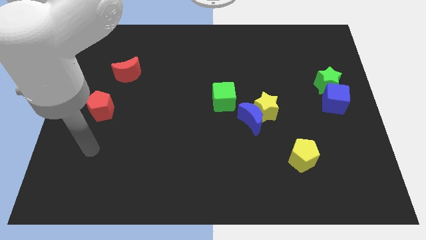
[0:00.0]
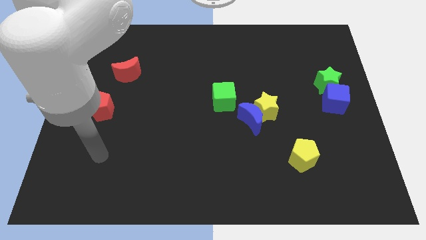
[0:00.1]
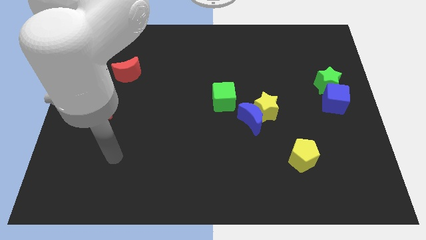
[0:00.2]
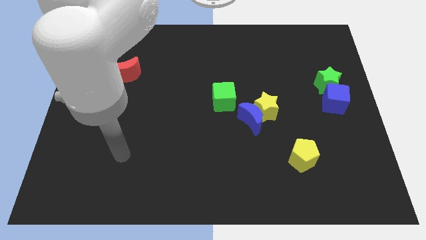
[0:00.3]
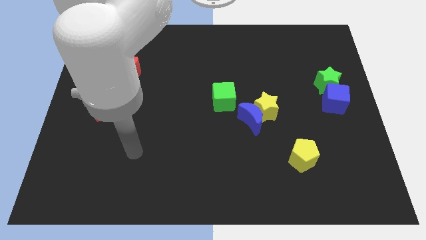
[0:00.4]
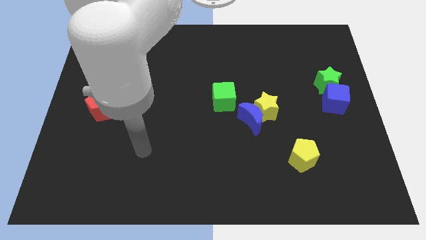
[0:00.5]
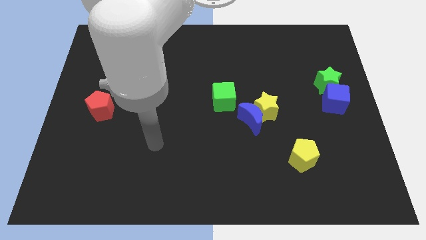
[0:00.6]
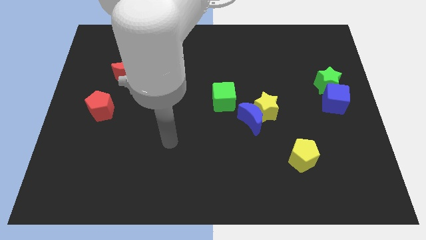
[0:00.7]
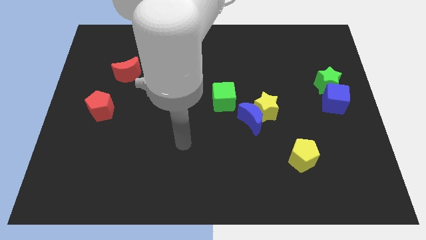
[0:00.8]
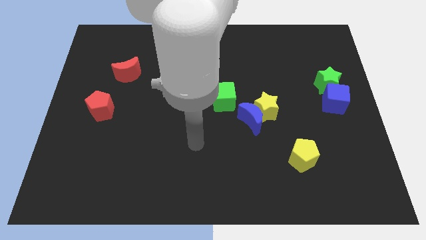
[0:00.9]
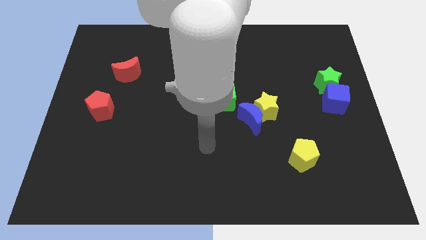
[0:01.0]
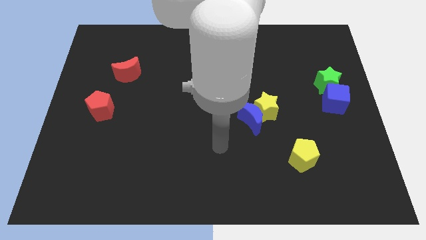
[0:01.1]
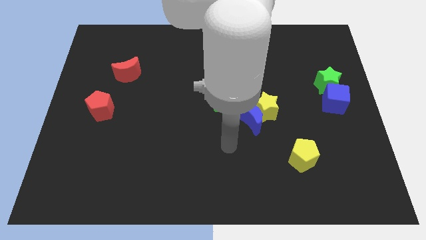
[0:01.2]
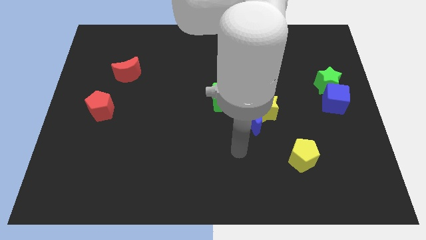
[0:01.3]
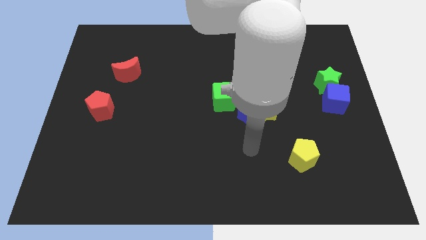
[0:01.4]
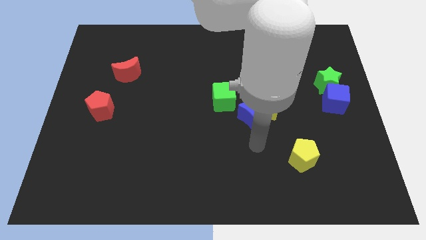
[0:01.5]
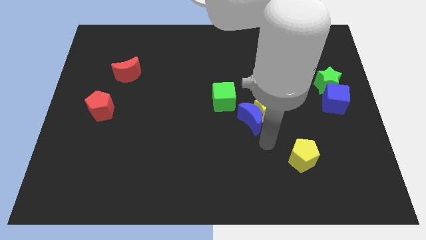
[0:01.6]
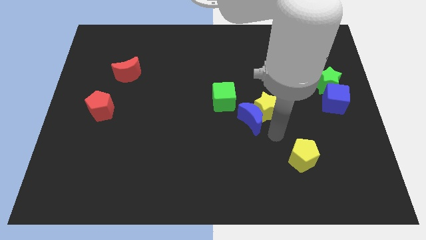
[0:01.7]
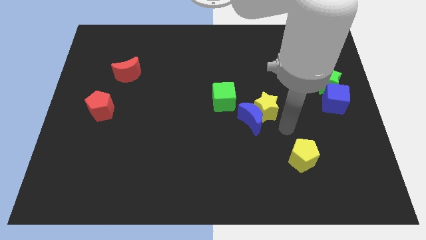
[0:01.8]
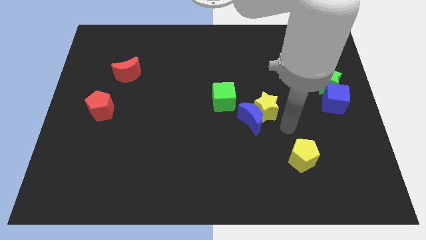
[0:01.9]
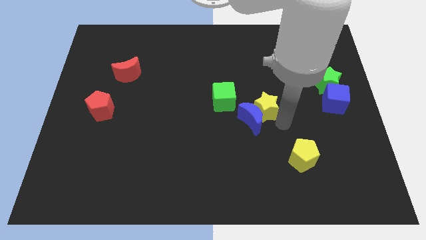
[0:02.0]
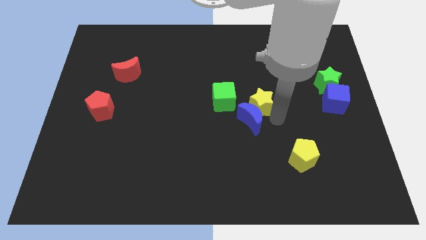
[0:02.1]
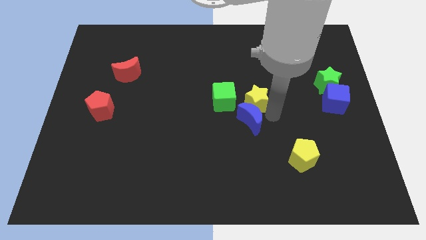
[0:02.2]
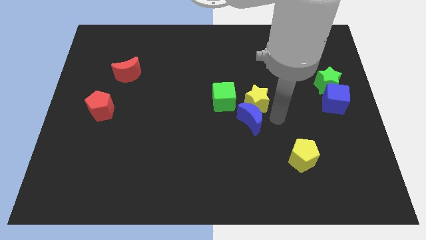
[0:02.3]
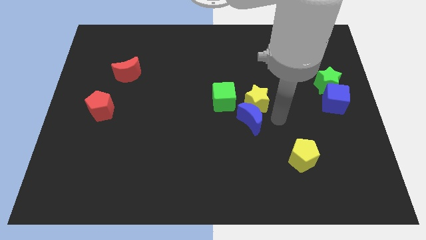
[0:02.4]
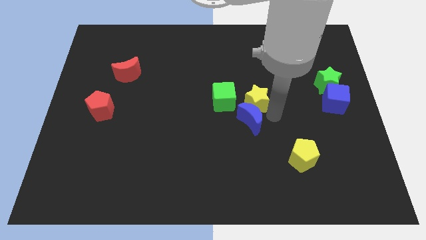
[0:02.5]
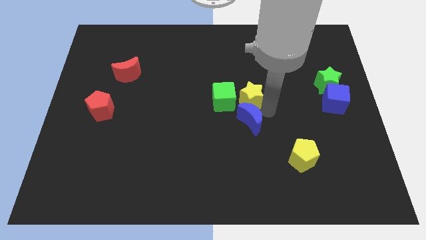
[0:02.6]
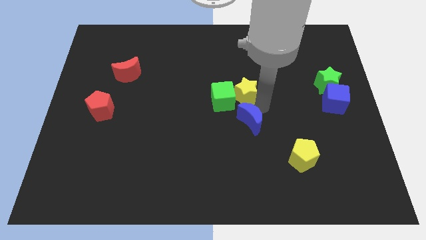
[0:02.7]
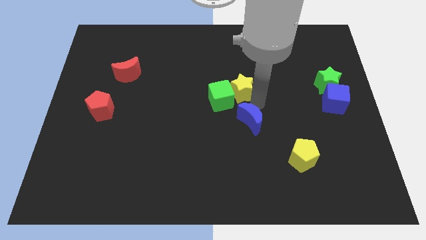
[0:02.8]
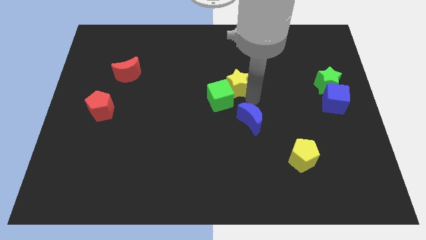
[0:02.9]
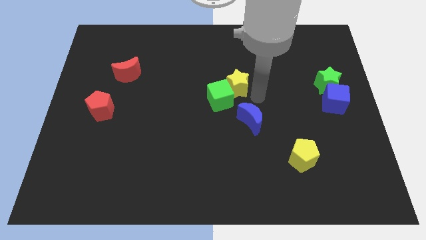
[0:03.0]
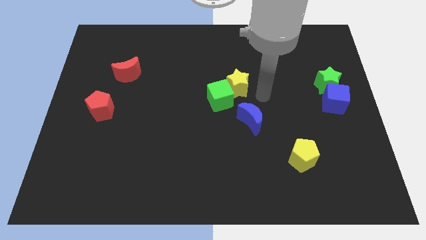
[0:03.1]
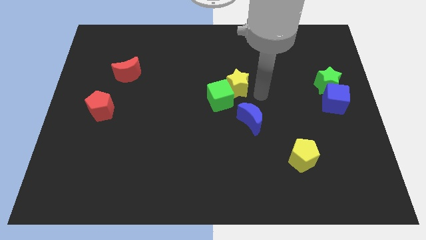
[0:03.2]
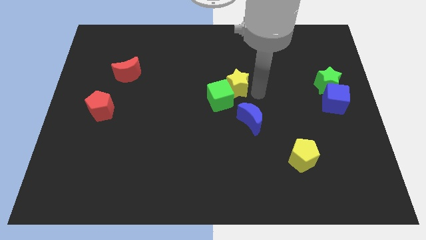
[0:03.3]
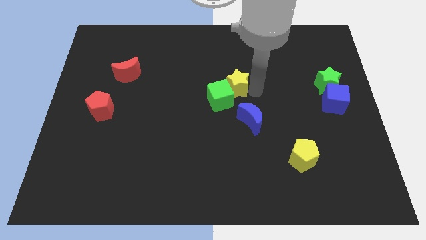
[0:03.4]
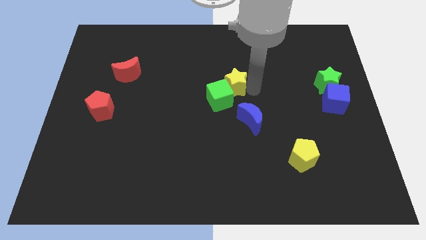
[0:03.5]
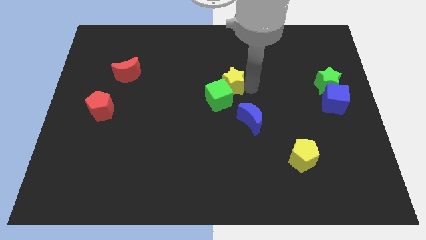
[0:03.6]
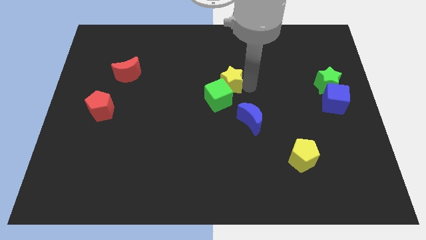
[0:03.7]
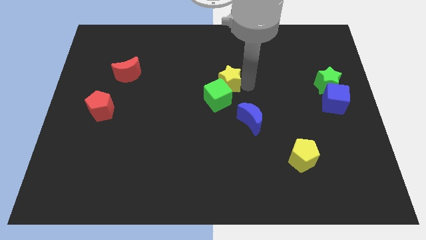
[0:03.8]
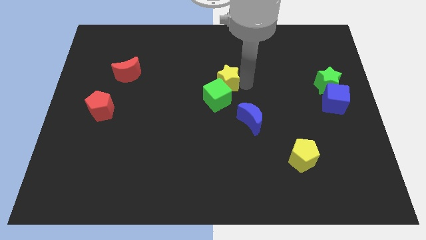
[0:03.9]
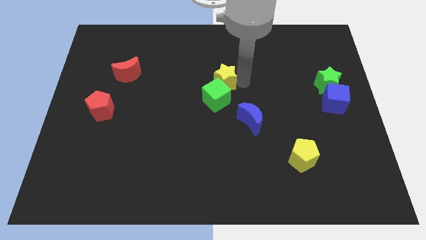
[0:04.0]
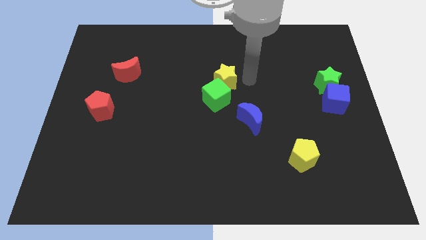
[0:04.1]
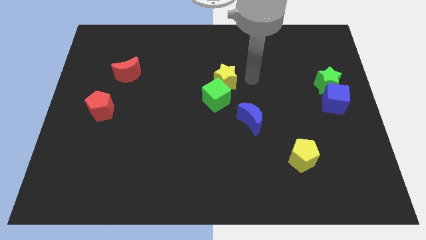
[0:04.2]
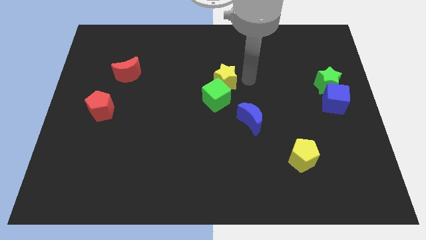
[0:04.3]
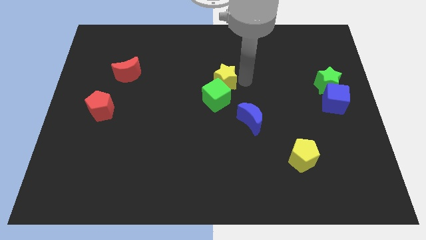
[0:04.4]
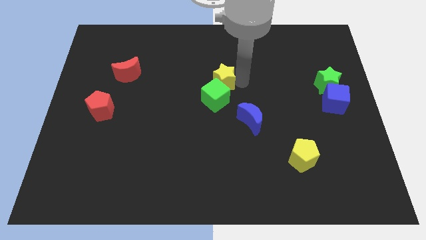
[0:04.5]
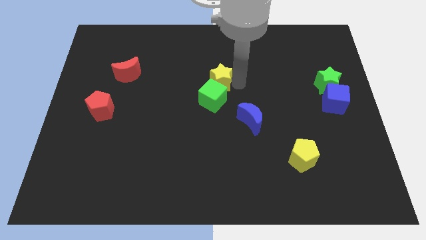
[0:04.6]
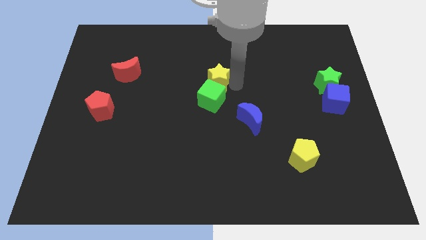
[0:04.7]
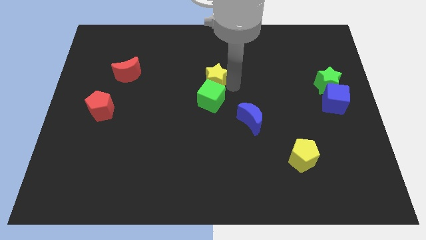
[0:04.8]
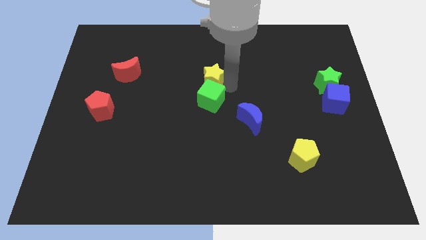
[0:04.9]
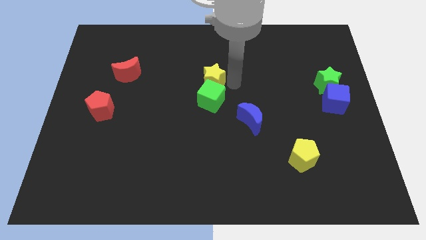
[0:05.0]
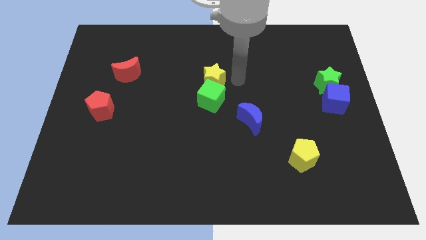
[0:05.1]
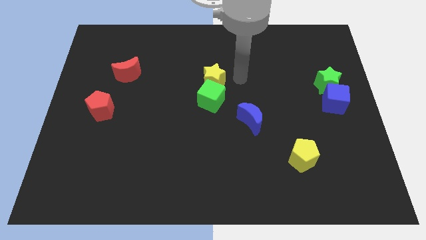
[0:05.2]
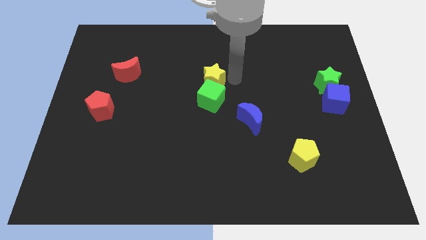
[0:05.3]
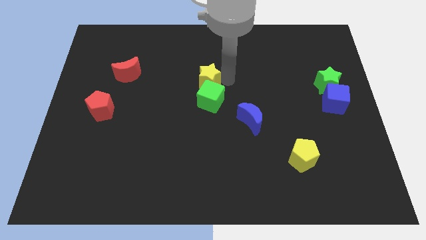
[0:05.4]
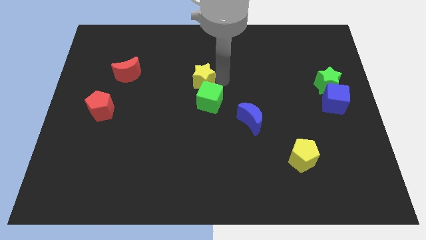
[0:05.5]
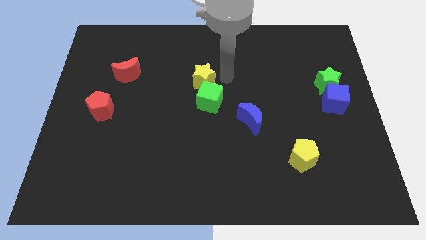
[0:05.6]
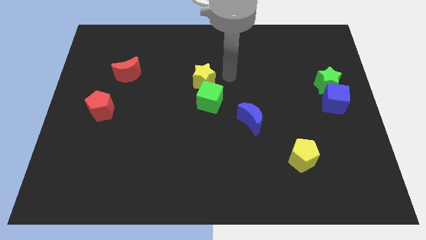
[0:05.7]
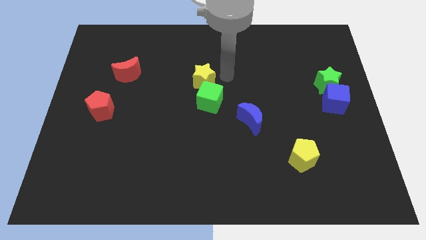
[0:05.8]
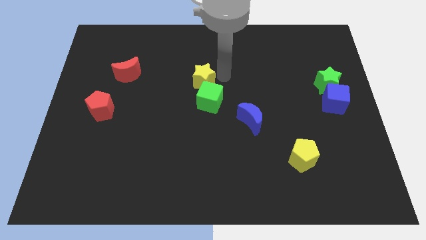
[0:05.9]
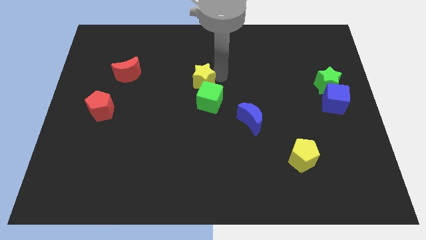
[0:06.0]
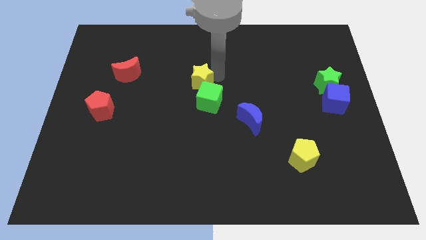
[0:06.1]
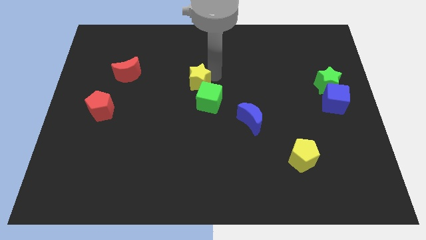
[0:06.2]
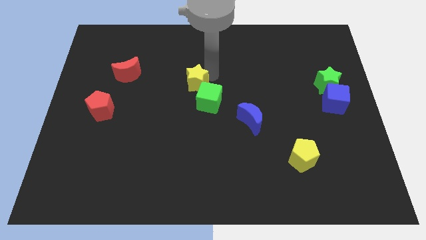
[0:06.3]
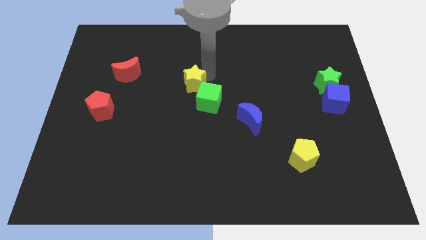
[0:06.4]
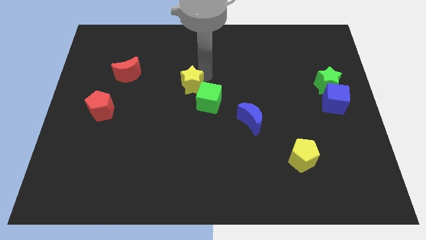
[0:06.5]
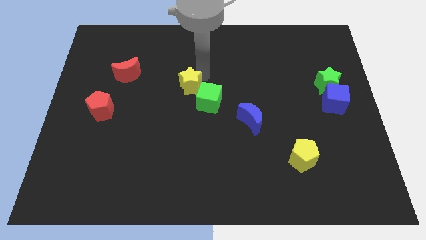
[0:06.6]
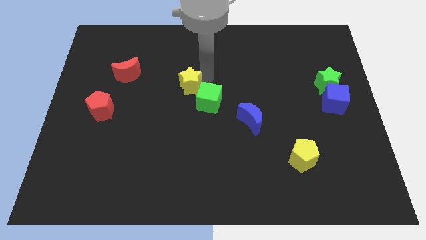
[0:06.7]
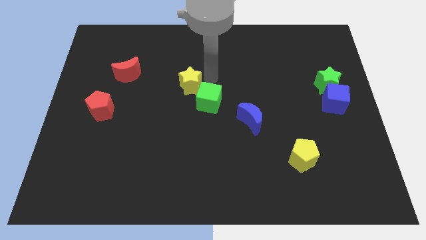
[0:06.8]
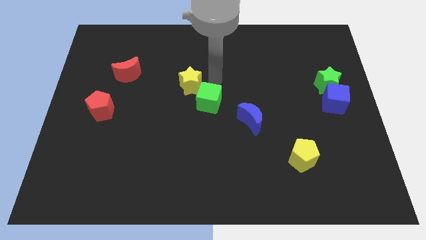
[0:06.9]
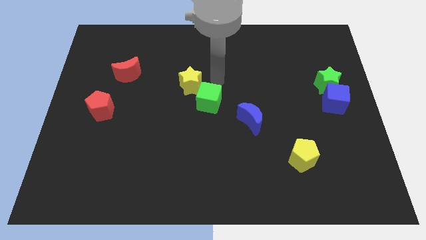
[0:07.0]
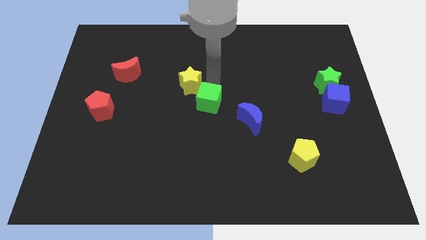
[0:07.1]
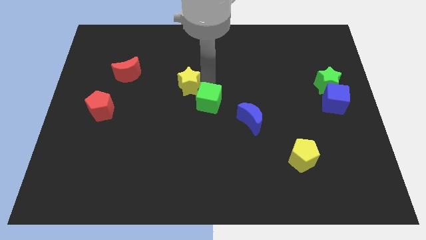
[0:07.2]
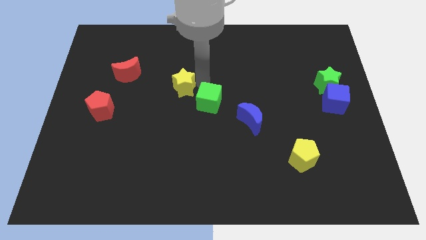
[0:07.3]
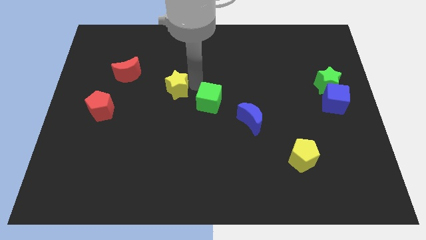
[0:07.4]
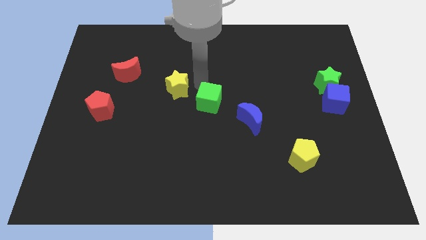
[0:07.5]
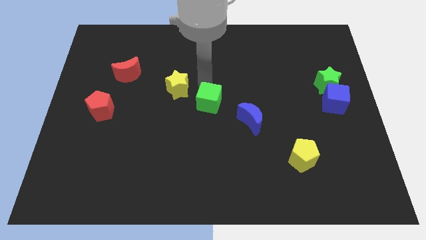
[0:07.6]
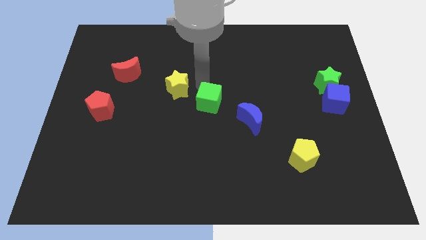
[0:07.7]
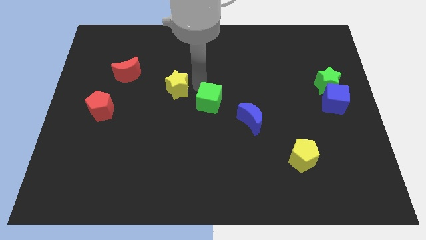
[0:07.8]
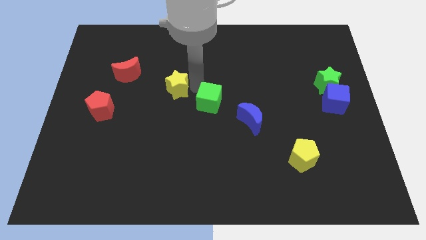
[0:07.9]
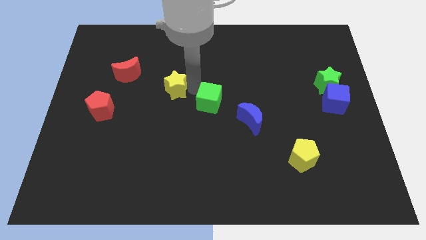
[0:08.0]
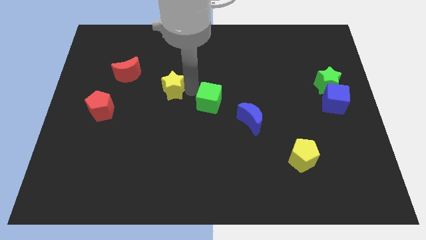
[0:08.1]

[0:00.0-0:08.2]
move the yellow star to the left
